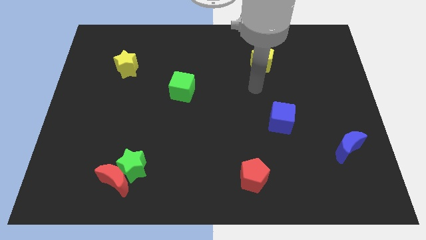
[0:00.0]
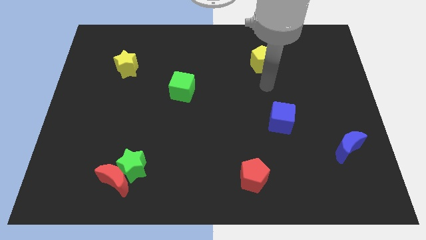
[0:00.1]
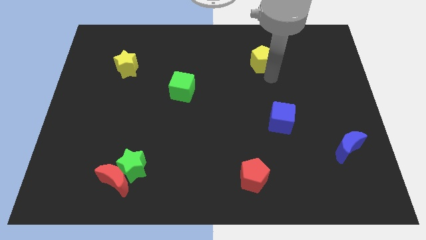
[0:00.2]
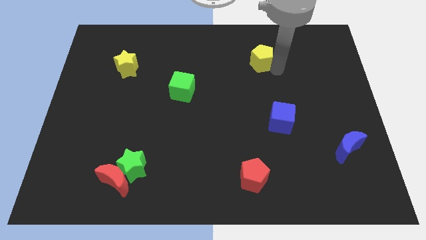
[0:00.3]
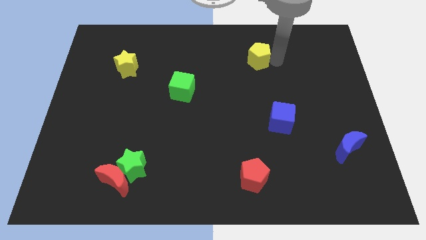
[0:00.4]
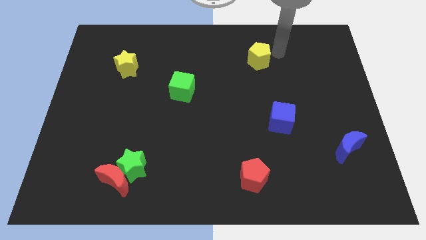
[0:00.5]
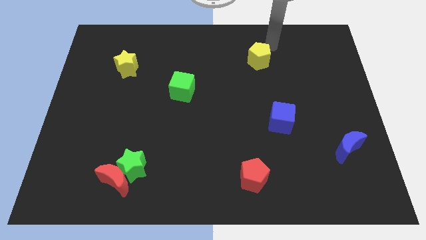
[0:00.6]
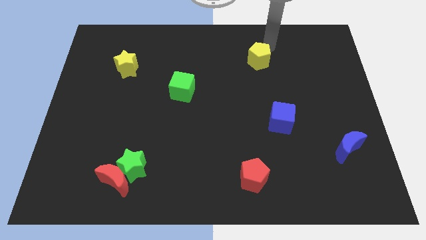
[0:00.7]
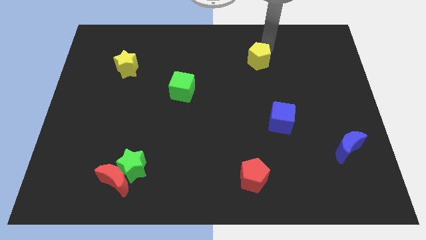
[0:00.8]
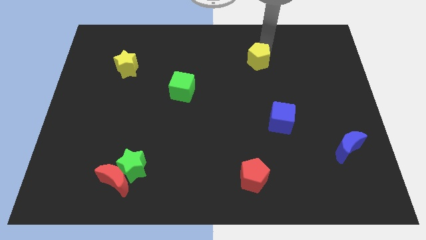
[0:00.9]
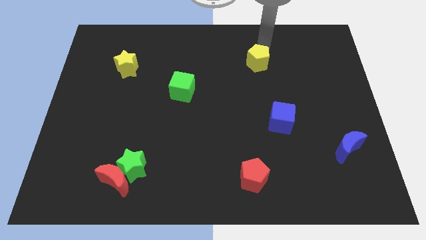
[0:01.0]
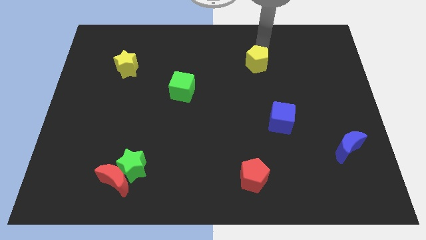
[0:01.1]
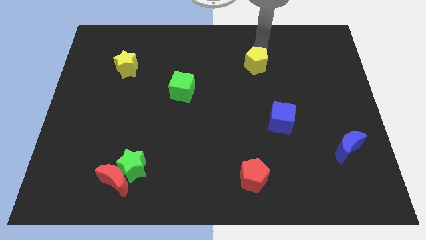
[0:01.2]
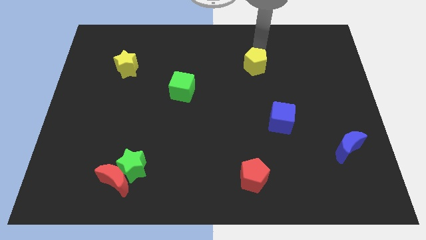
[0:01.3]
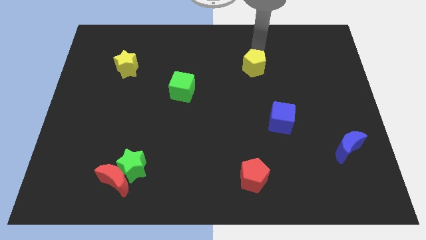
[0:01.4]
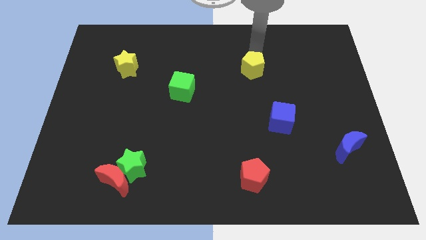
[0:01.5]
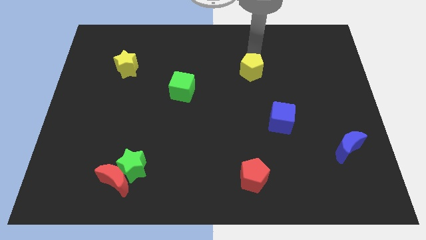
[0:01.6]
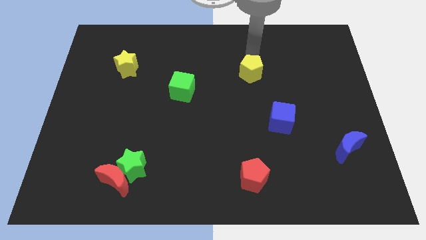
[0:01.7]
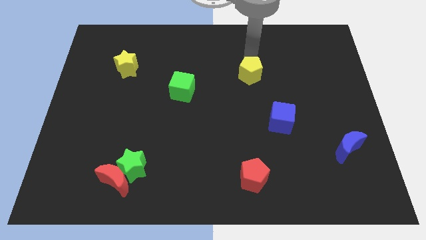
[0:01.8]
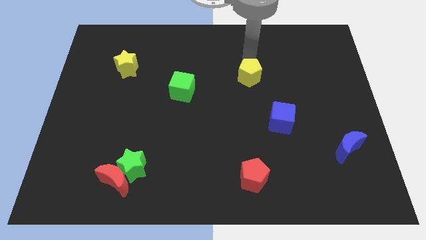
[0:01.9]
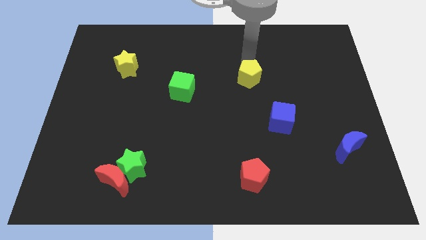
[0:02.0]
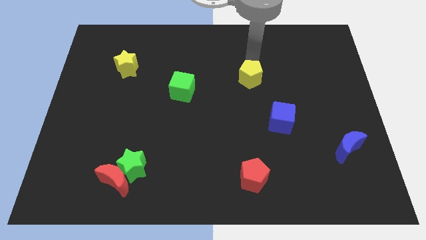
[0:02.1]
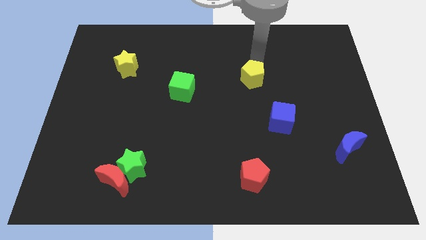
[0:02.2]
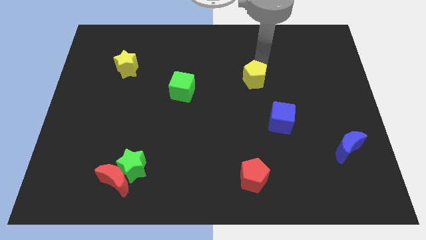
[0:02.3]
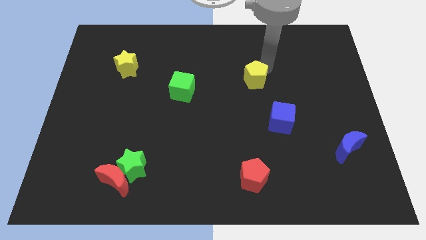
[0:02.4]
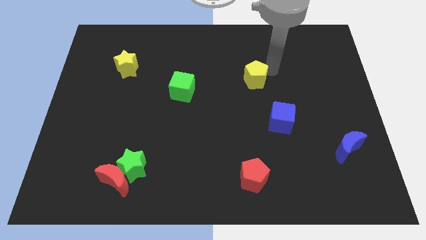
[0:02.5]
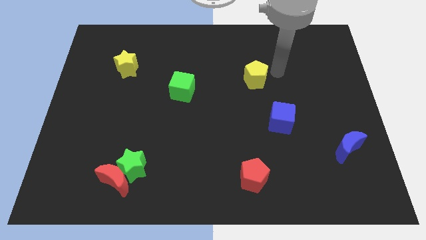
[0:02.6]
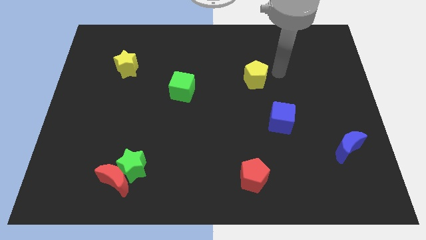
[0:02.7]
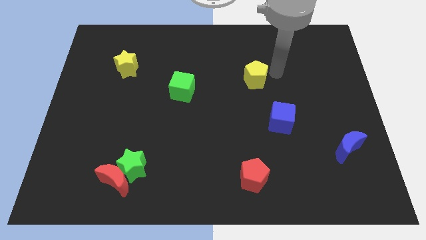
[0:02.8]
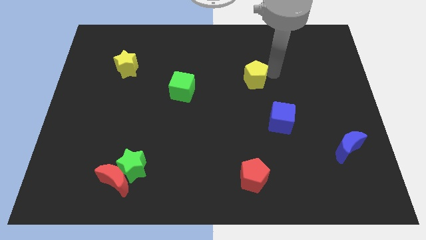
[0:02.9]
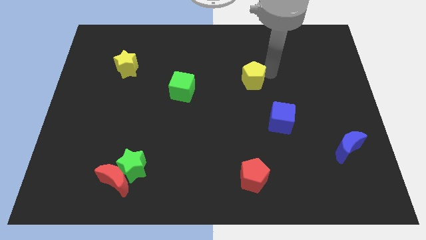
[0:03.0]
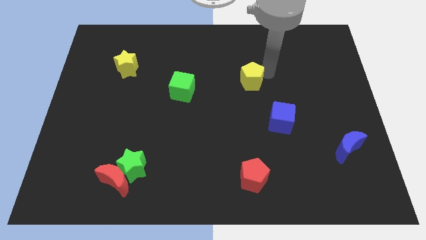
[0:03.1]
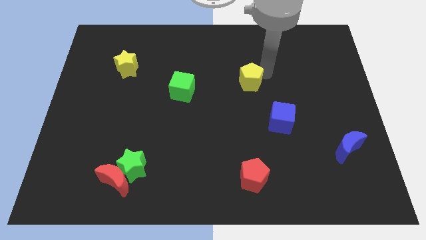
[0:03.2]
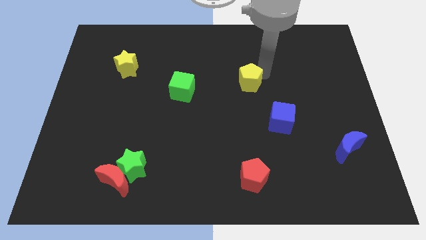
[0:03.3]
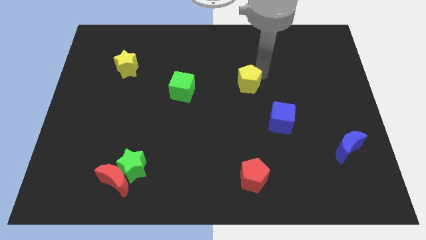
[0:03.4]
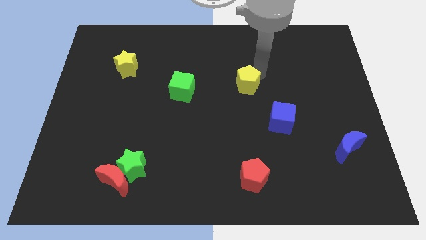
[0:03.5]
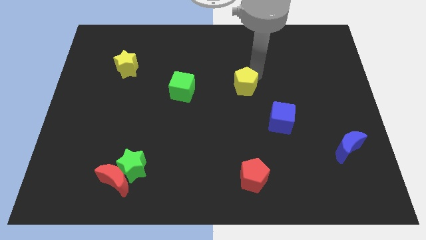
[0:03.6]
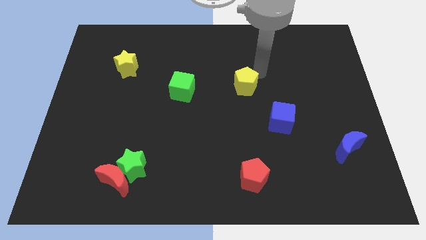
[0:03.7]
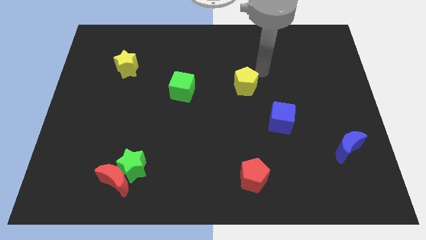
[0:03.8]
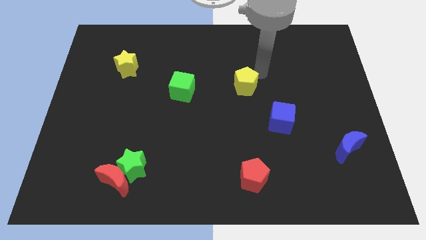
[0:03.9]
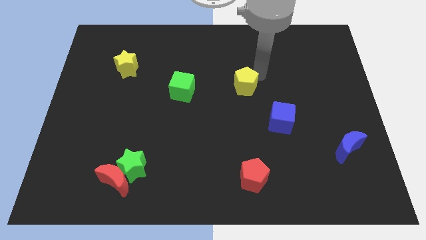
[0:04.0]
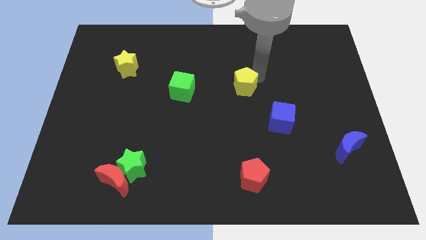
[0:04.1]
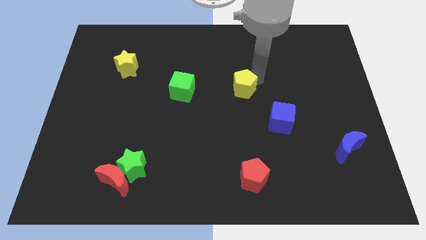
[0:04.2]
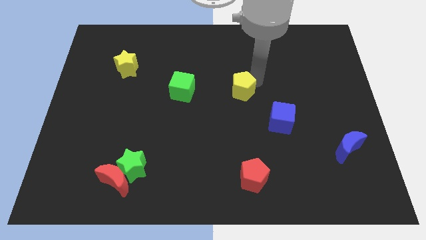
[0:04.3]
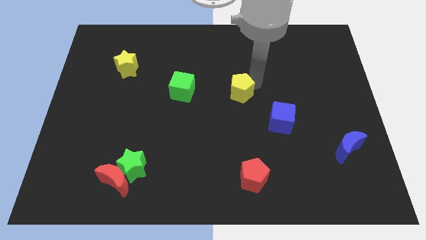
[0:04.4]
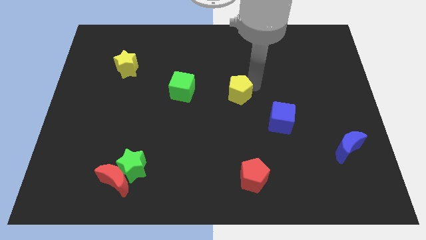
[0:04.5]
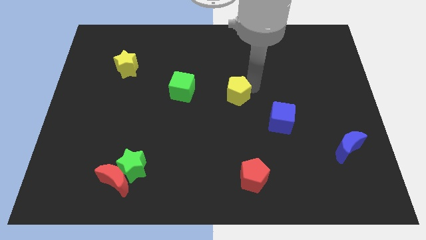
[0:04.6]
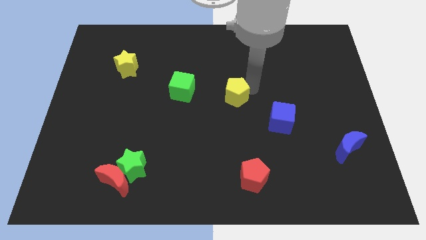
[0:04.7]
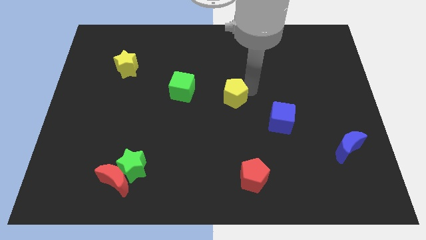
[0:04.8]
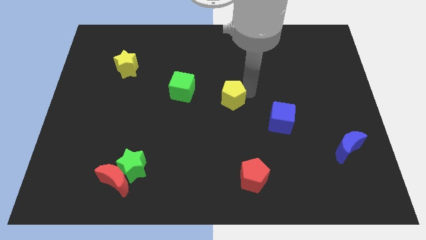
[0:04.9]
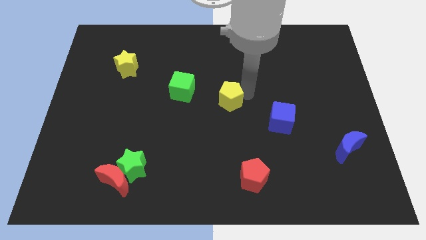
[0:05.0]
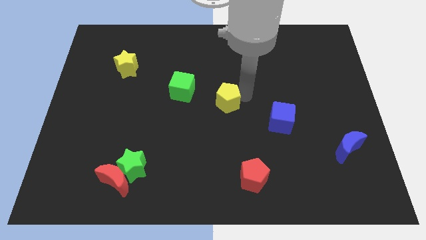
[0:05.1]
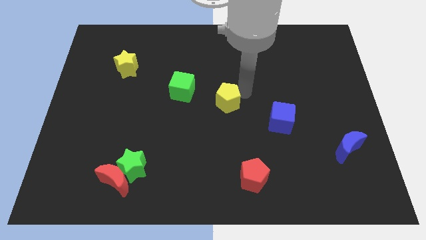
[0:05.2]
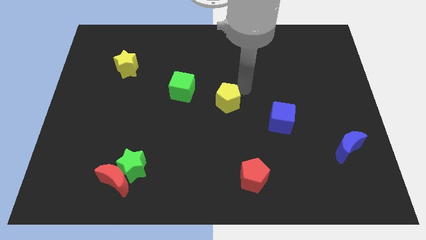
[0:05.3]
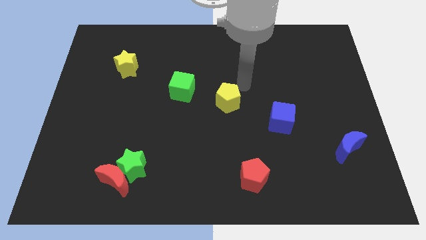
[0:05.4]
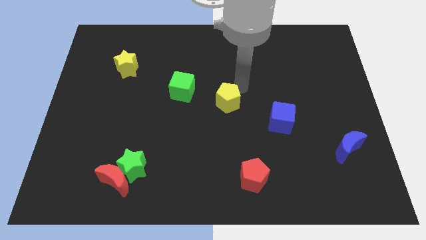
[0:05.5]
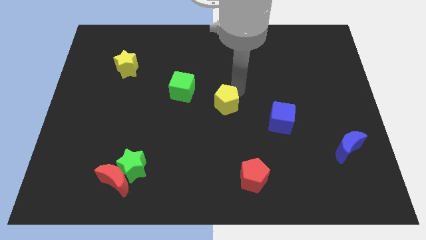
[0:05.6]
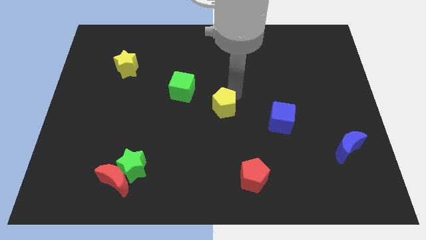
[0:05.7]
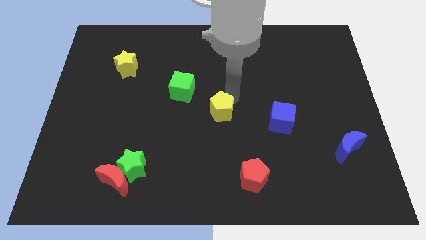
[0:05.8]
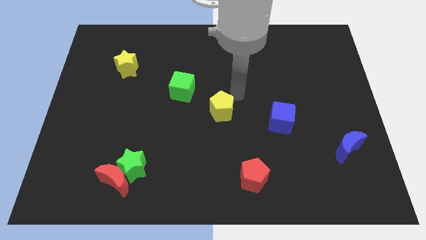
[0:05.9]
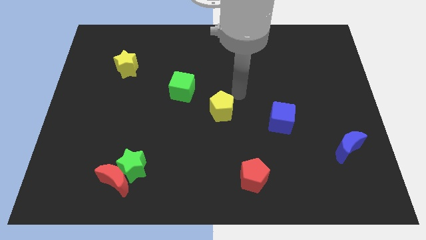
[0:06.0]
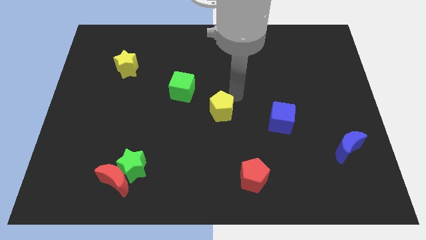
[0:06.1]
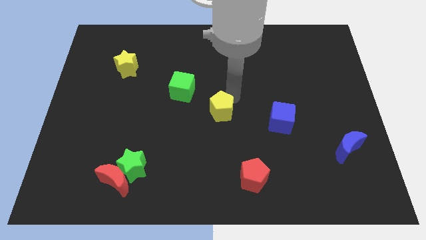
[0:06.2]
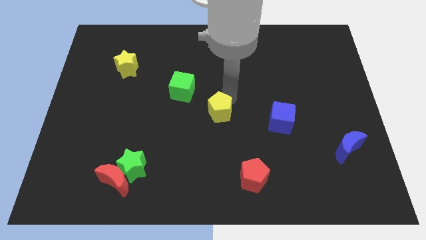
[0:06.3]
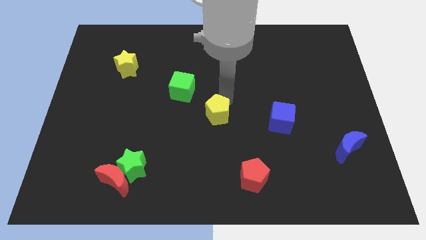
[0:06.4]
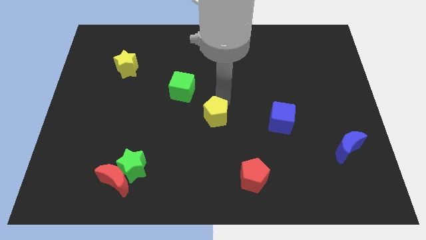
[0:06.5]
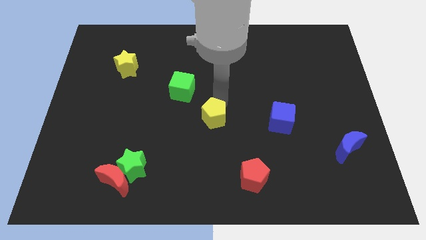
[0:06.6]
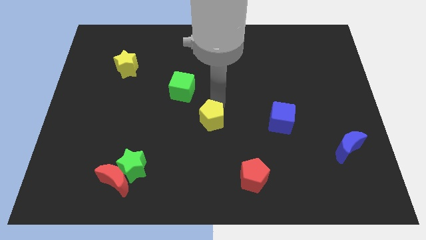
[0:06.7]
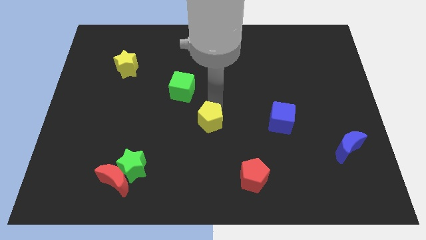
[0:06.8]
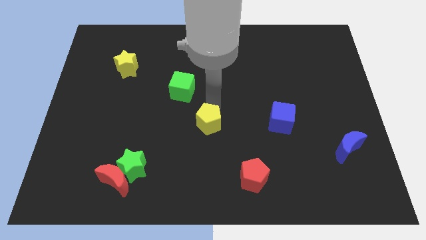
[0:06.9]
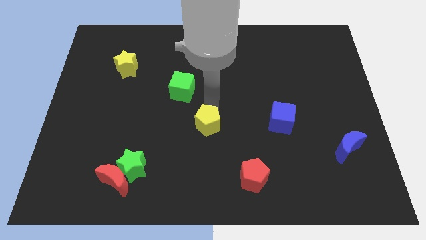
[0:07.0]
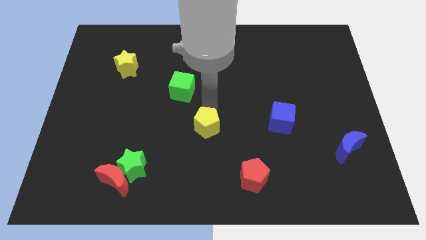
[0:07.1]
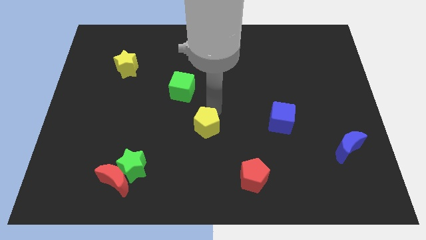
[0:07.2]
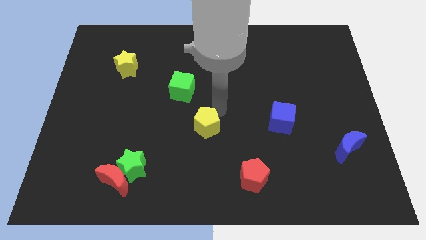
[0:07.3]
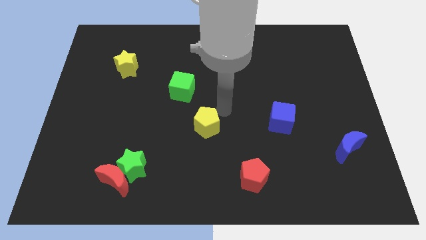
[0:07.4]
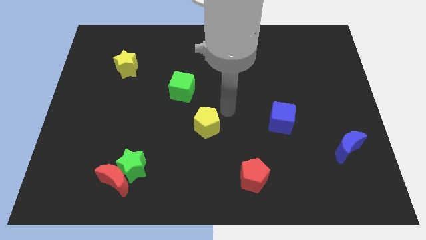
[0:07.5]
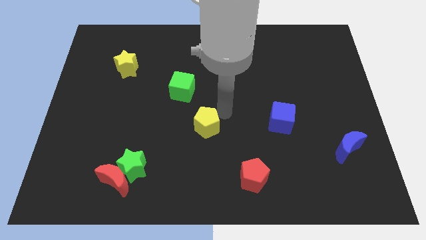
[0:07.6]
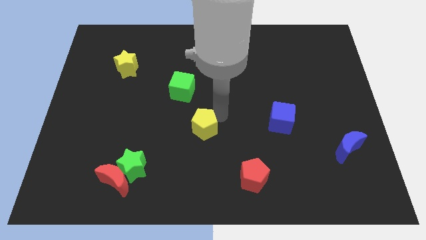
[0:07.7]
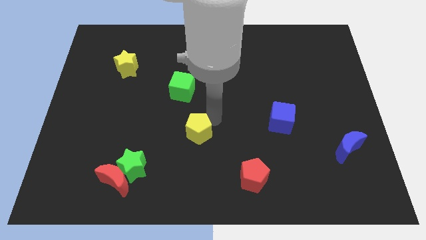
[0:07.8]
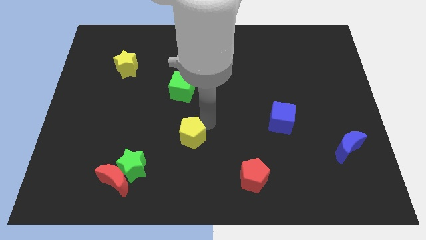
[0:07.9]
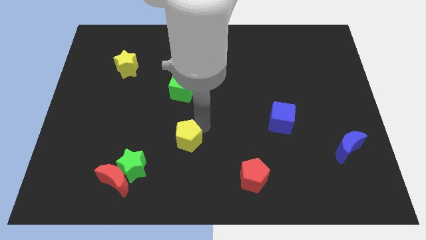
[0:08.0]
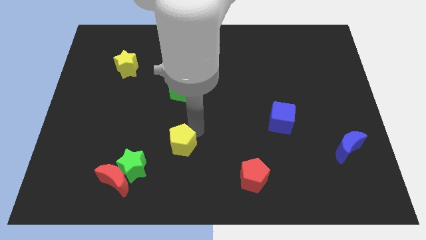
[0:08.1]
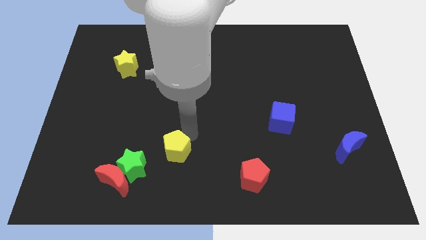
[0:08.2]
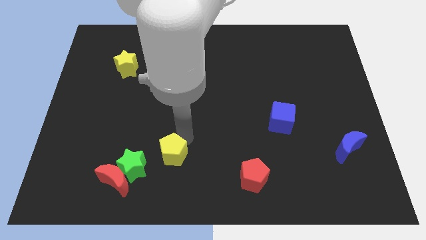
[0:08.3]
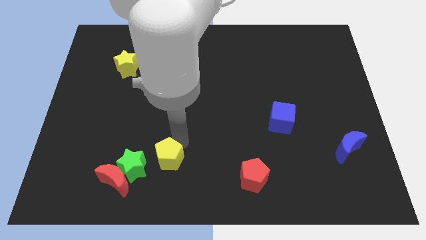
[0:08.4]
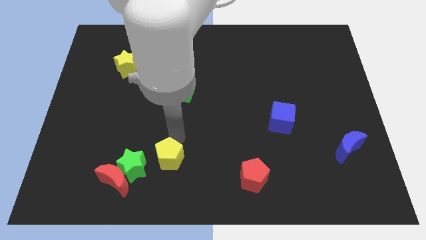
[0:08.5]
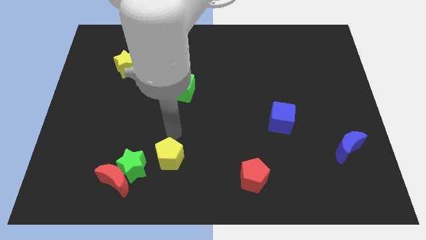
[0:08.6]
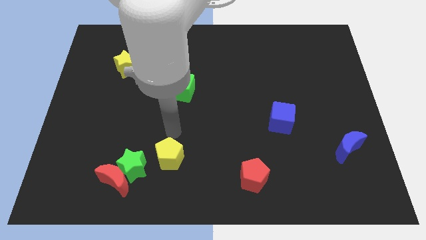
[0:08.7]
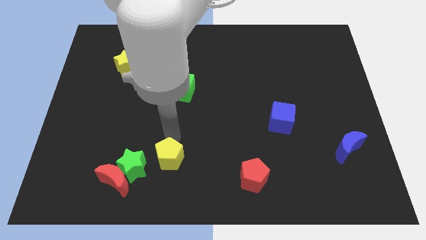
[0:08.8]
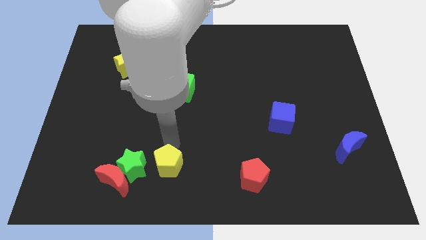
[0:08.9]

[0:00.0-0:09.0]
move the yellow pentagon just right of the red moon
